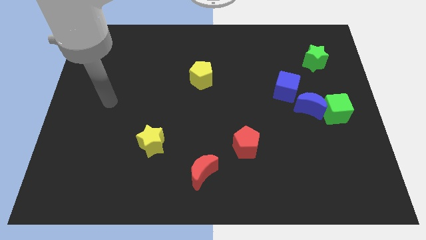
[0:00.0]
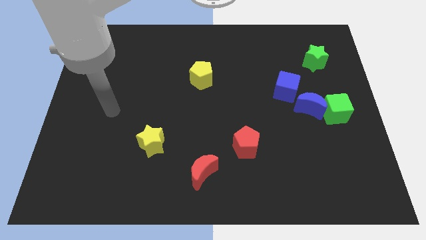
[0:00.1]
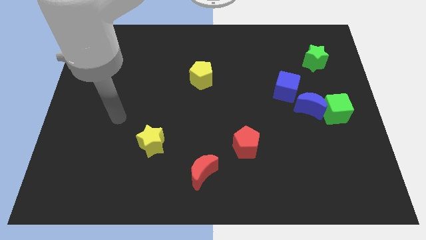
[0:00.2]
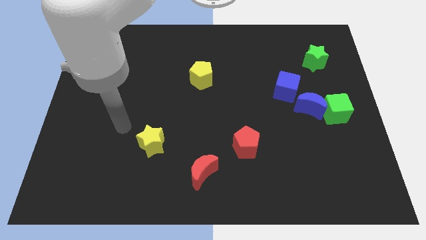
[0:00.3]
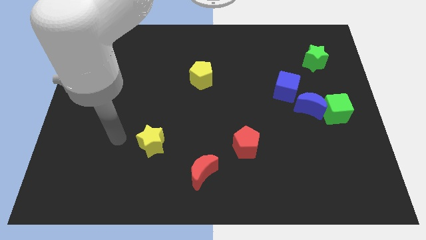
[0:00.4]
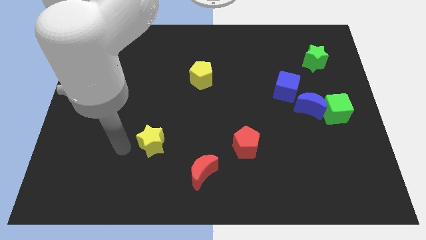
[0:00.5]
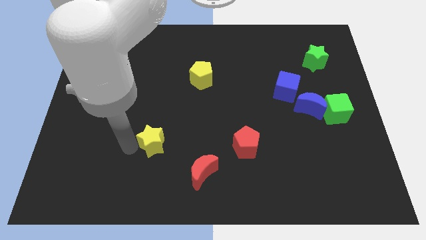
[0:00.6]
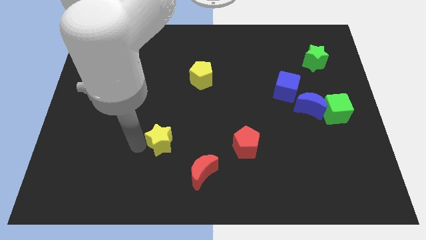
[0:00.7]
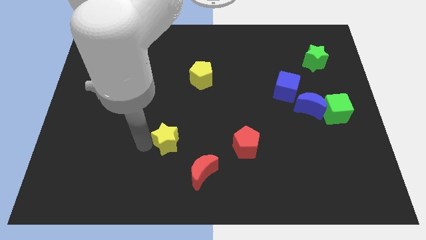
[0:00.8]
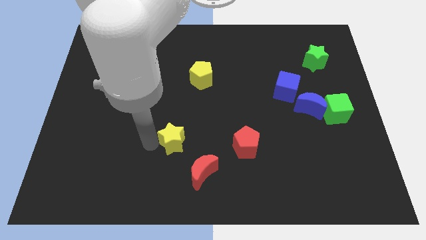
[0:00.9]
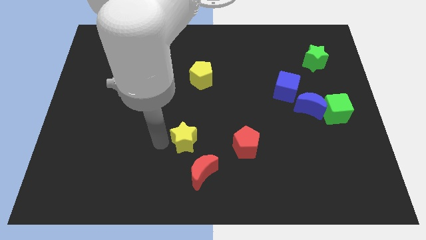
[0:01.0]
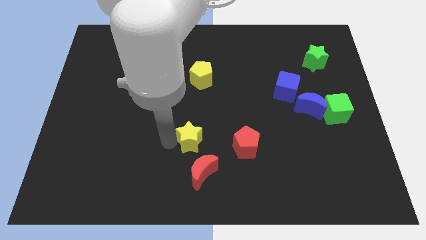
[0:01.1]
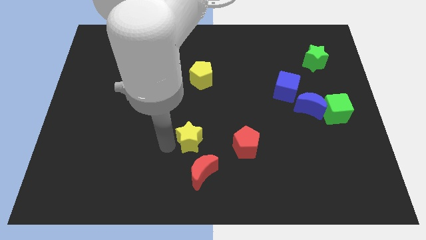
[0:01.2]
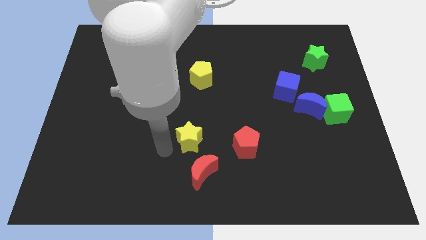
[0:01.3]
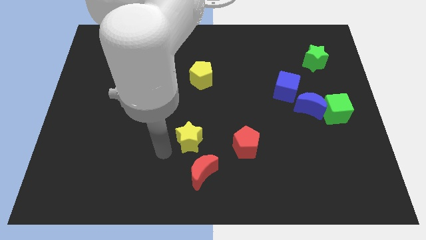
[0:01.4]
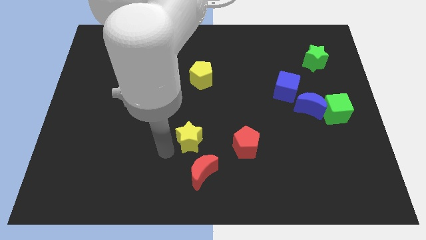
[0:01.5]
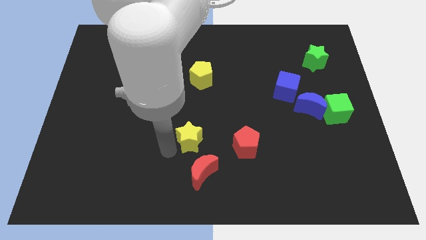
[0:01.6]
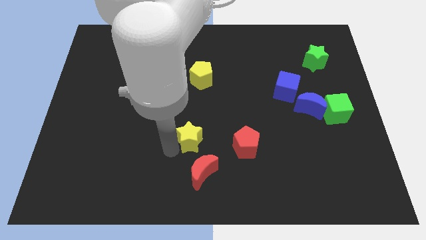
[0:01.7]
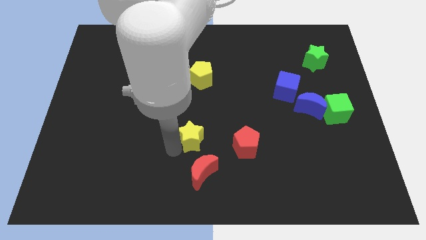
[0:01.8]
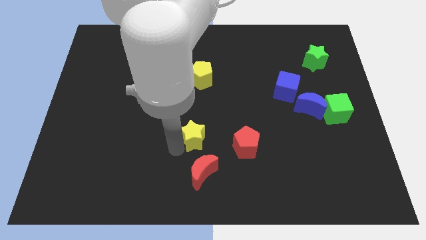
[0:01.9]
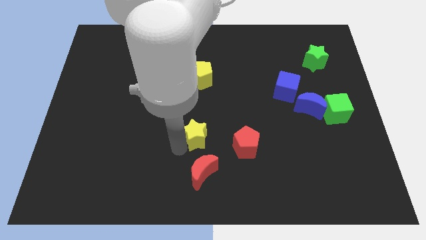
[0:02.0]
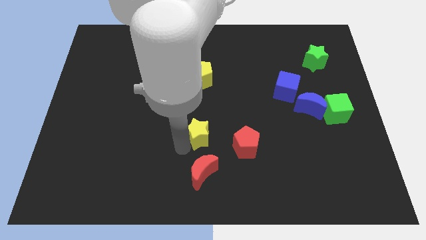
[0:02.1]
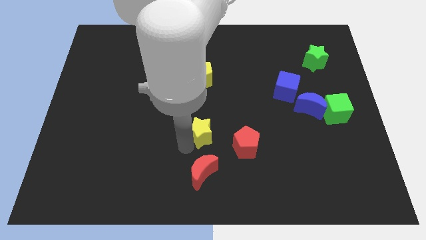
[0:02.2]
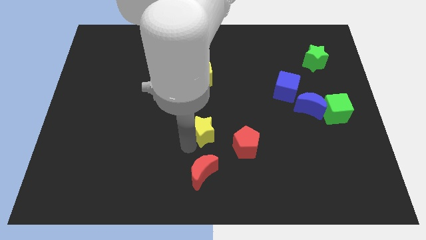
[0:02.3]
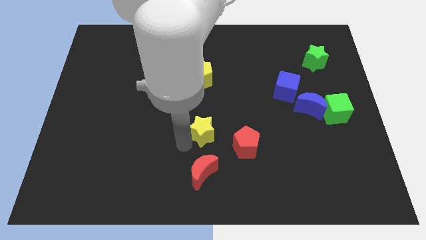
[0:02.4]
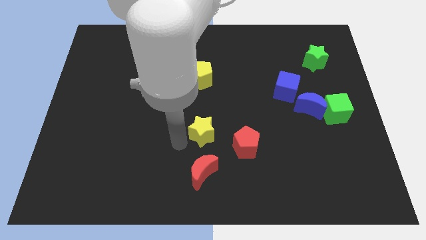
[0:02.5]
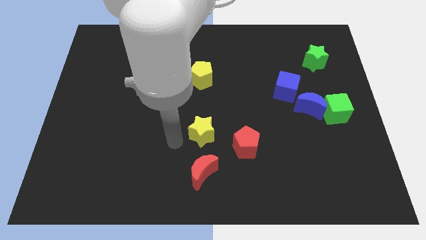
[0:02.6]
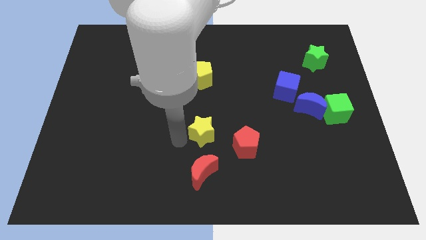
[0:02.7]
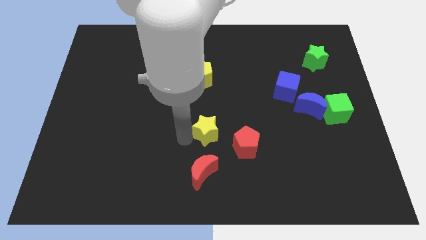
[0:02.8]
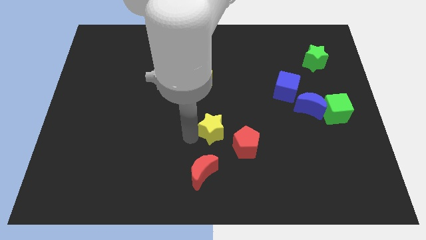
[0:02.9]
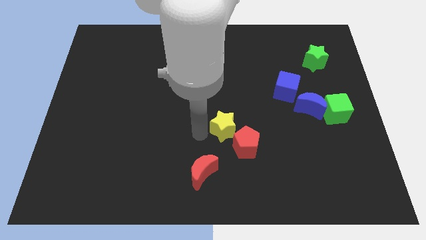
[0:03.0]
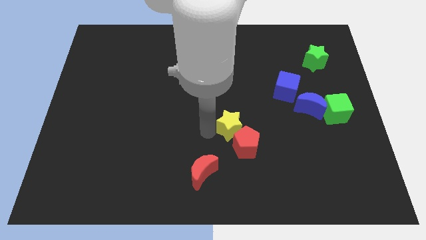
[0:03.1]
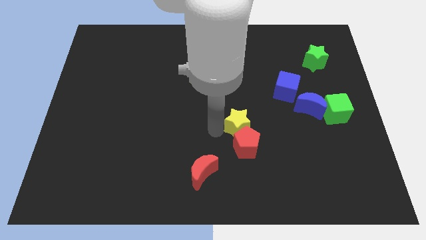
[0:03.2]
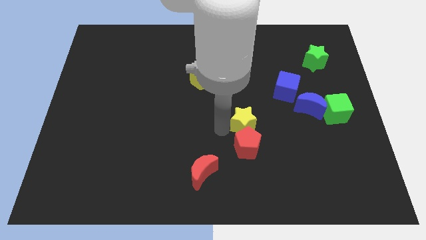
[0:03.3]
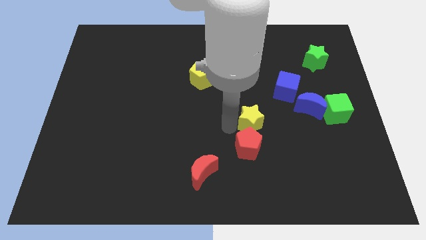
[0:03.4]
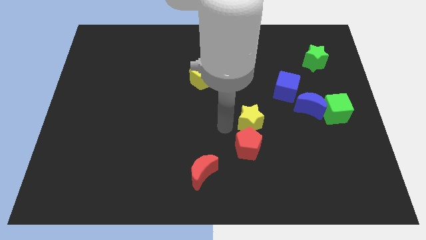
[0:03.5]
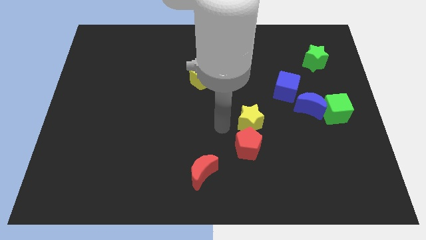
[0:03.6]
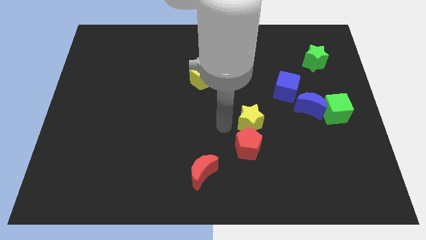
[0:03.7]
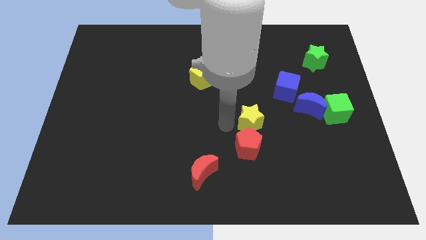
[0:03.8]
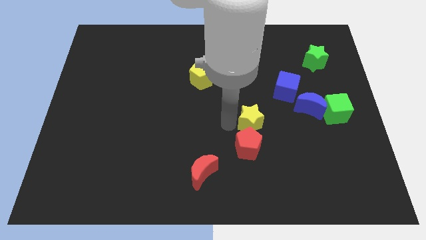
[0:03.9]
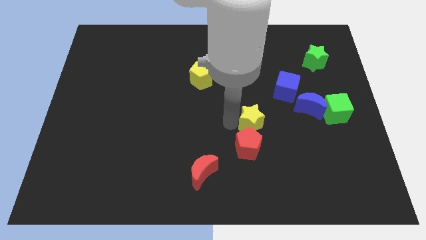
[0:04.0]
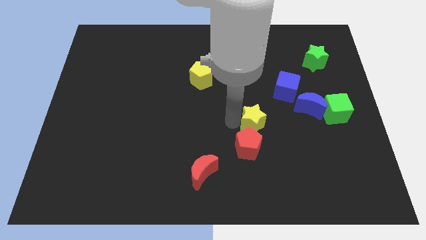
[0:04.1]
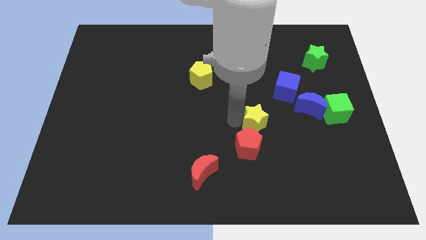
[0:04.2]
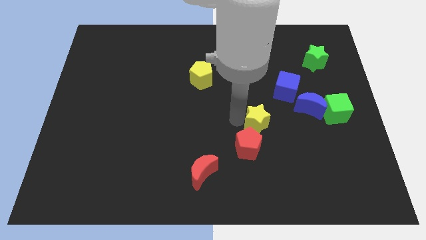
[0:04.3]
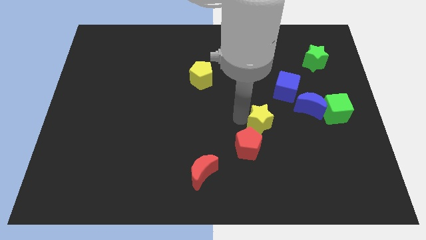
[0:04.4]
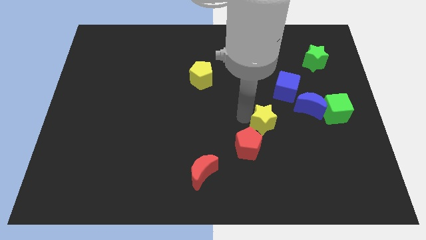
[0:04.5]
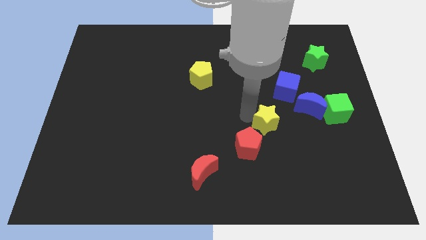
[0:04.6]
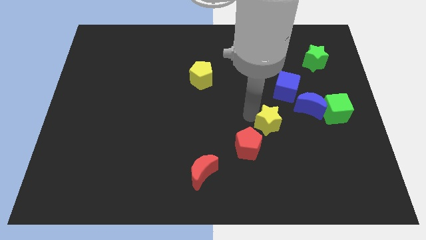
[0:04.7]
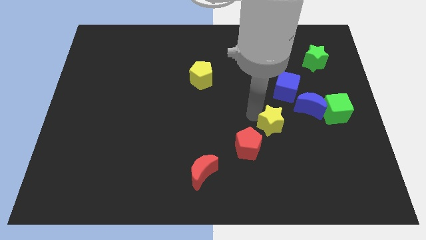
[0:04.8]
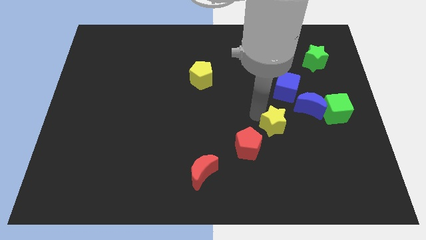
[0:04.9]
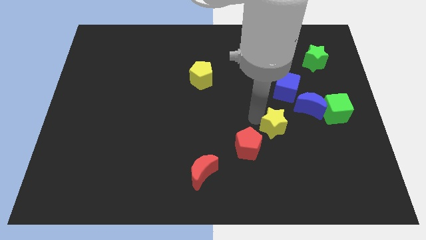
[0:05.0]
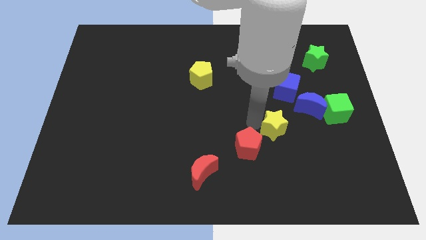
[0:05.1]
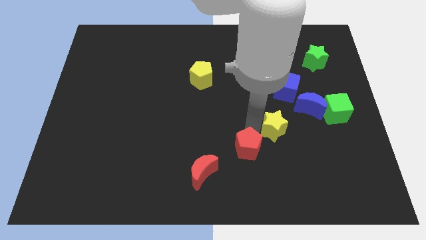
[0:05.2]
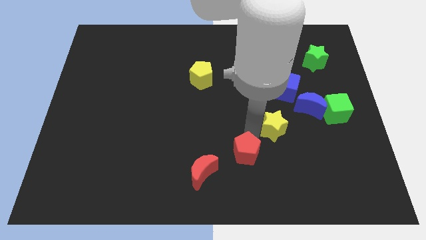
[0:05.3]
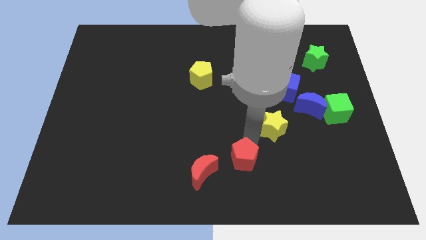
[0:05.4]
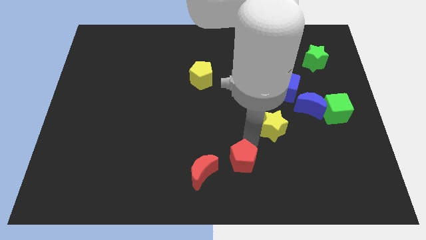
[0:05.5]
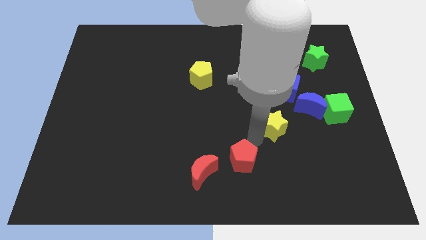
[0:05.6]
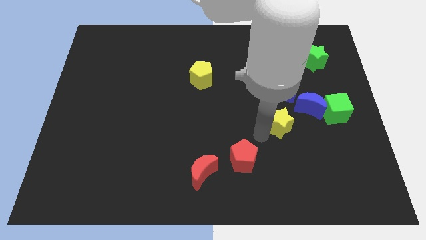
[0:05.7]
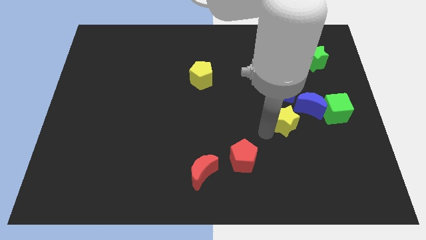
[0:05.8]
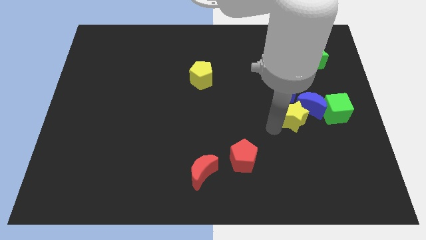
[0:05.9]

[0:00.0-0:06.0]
push the yellow star towards the blue moon

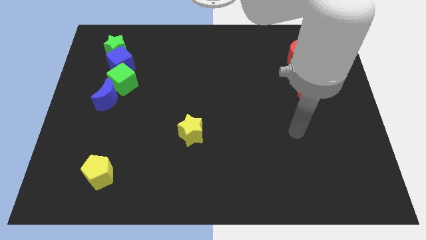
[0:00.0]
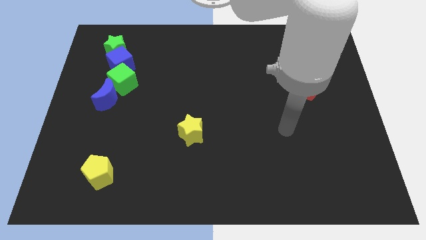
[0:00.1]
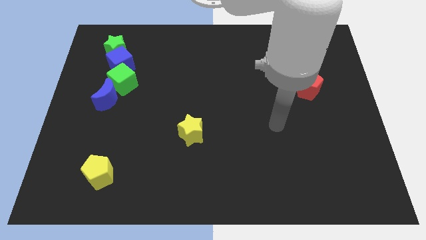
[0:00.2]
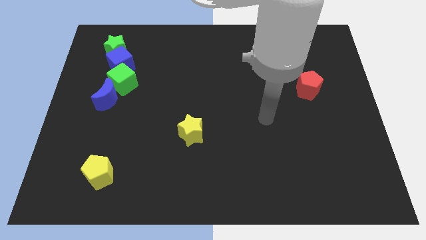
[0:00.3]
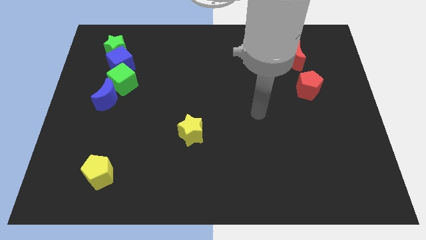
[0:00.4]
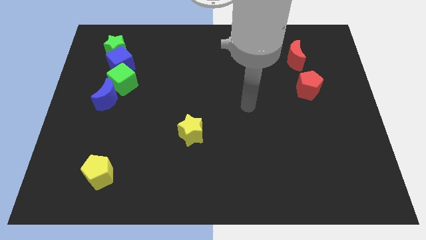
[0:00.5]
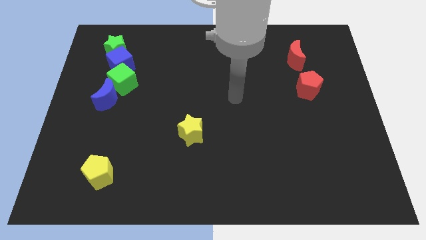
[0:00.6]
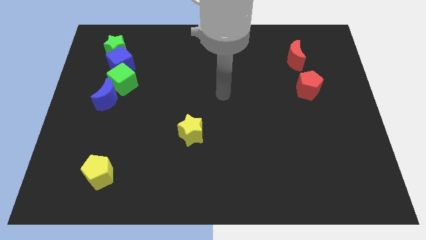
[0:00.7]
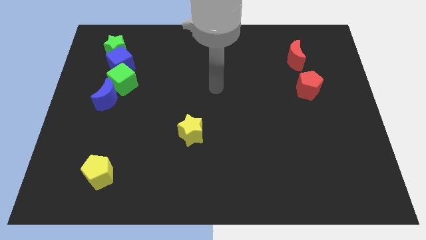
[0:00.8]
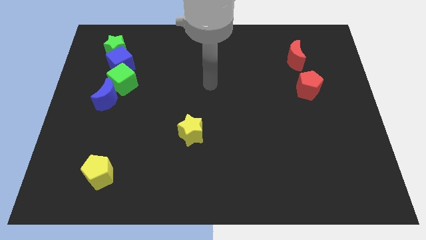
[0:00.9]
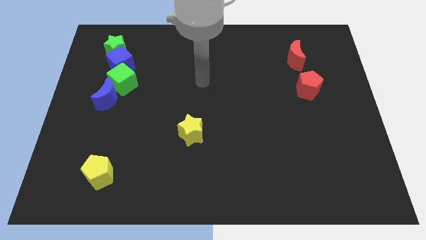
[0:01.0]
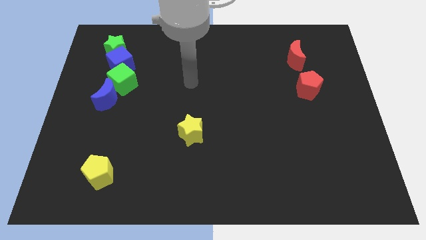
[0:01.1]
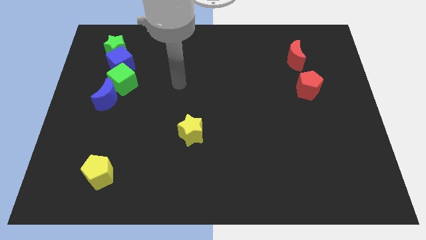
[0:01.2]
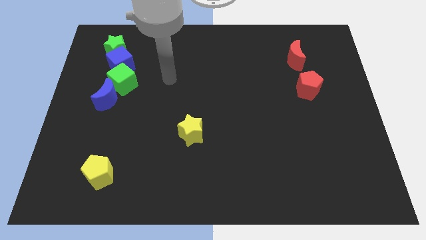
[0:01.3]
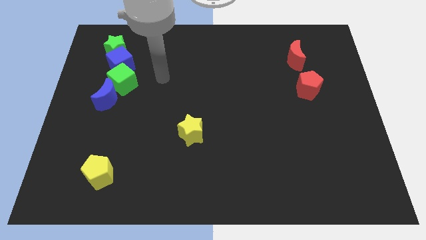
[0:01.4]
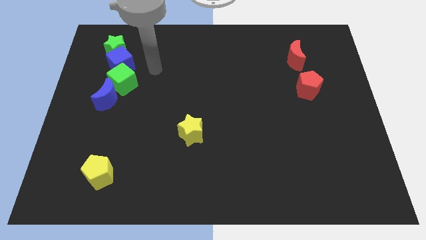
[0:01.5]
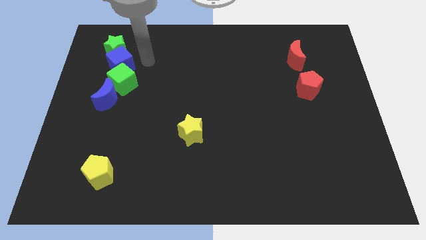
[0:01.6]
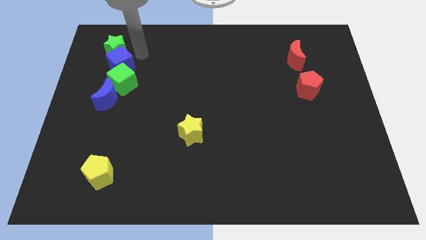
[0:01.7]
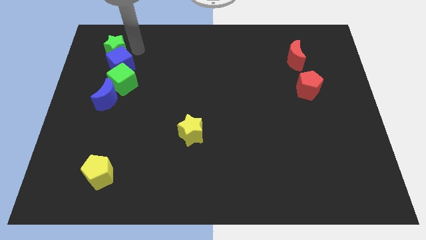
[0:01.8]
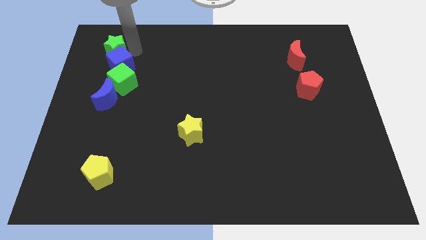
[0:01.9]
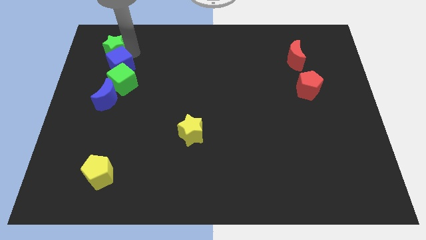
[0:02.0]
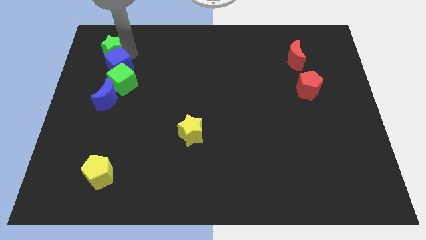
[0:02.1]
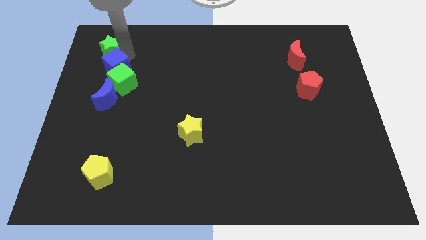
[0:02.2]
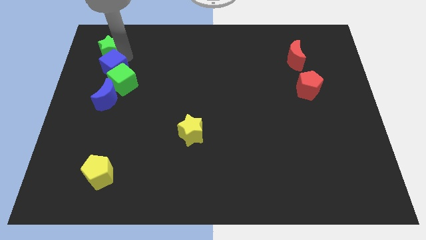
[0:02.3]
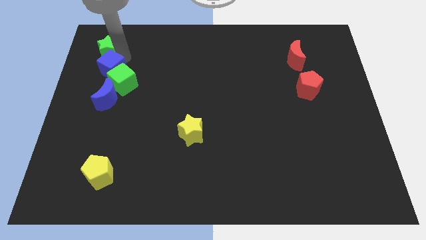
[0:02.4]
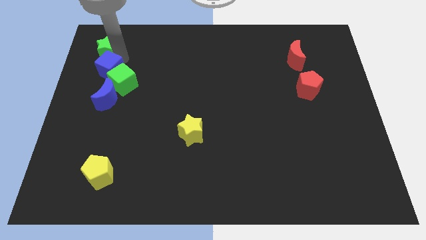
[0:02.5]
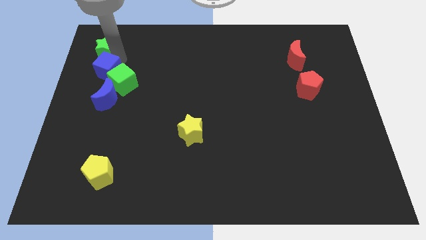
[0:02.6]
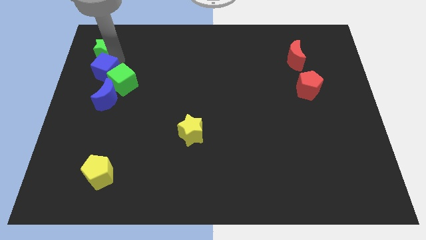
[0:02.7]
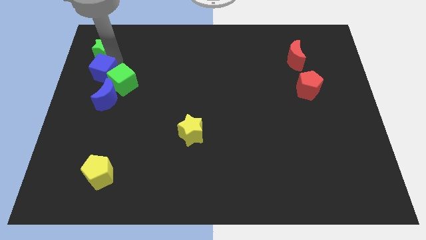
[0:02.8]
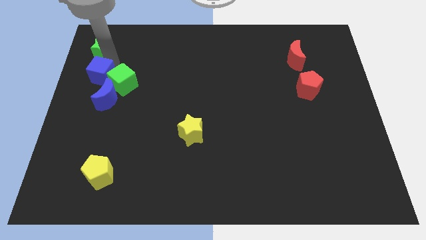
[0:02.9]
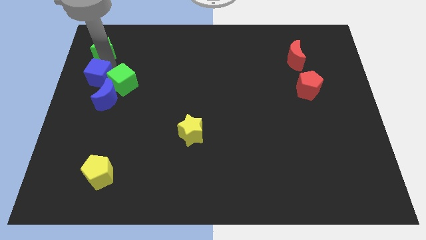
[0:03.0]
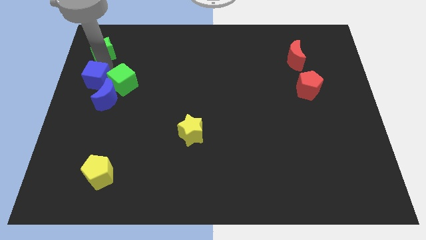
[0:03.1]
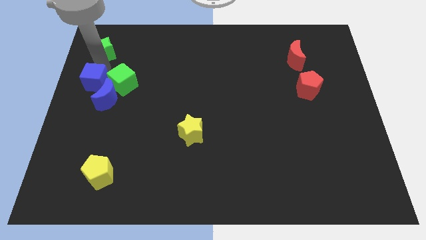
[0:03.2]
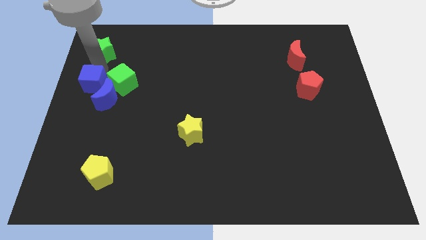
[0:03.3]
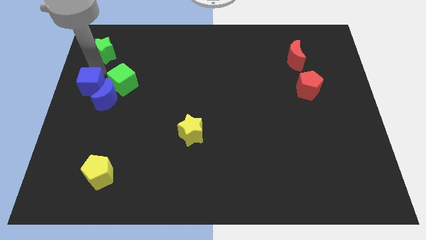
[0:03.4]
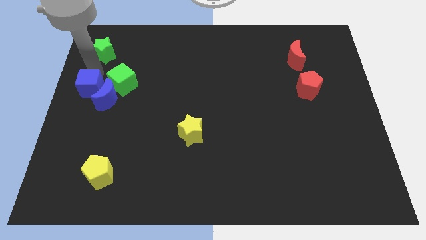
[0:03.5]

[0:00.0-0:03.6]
move the blue cube to the blue moon
